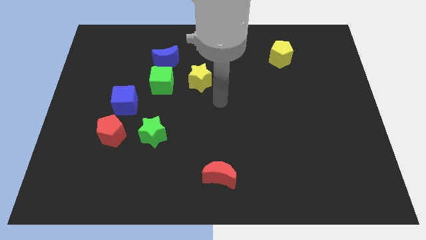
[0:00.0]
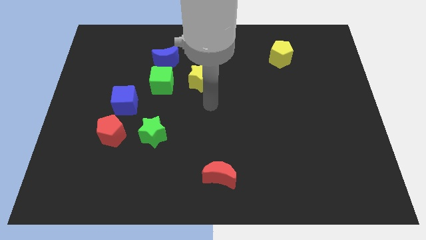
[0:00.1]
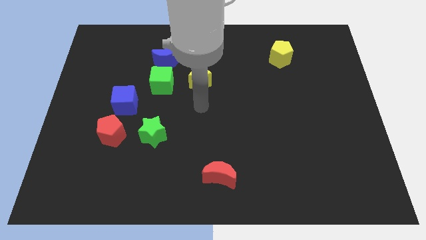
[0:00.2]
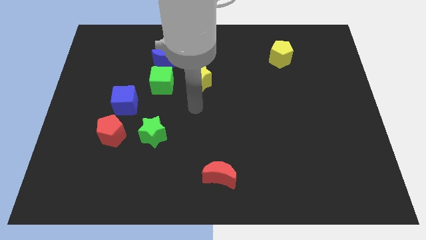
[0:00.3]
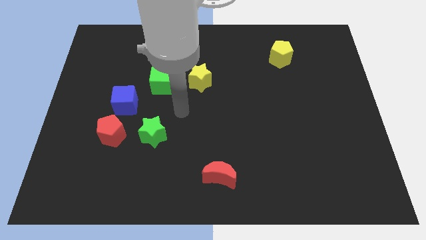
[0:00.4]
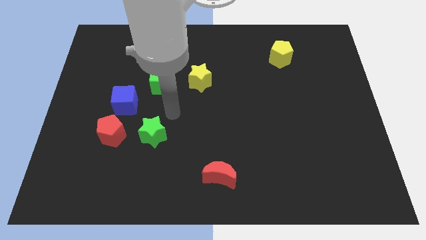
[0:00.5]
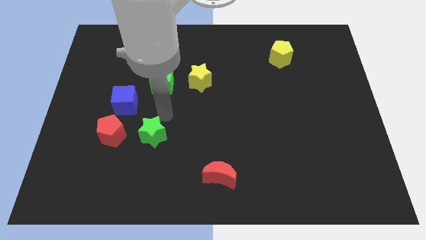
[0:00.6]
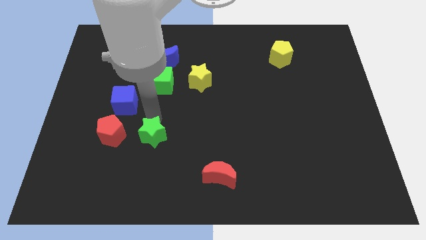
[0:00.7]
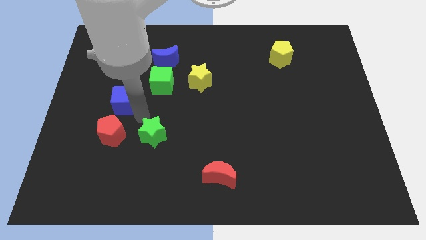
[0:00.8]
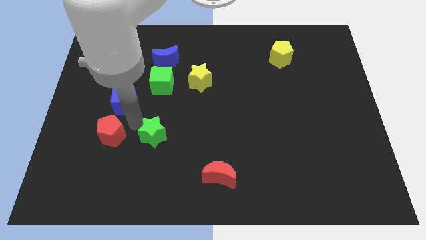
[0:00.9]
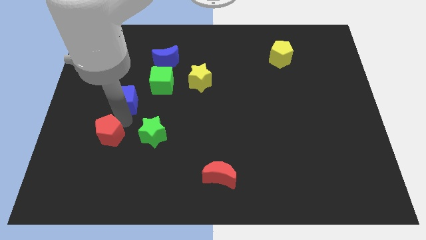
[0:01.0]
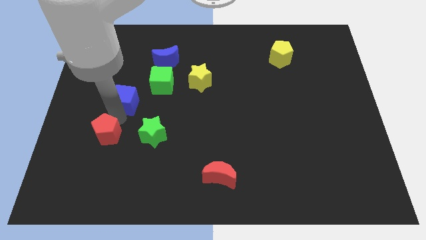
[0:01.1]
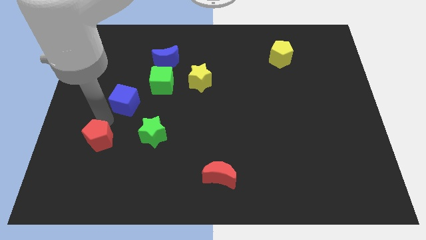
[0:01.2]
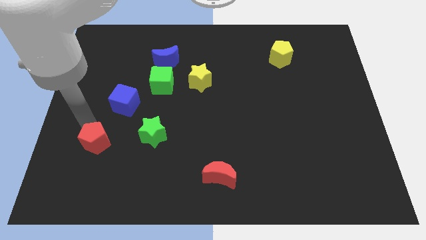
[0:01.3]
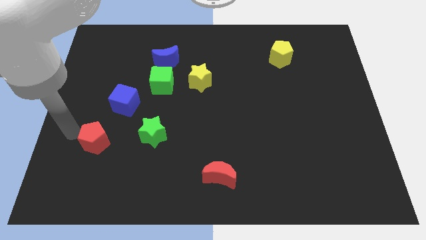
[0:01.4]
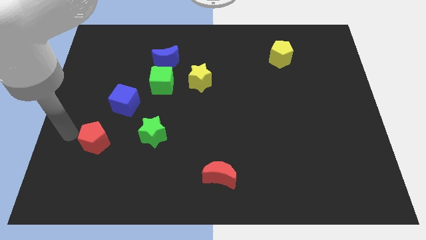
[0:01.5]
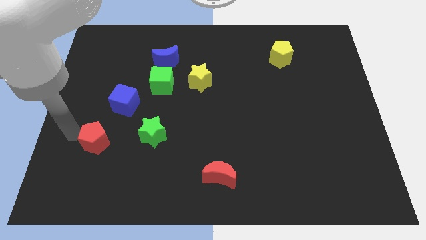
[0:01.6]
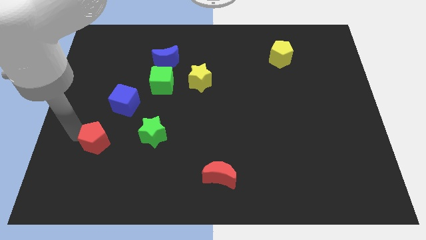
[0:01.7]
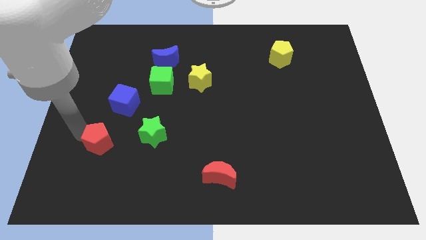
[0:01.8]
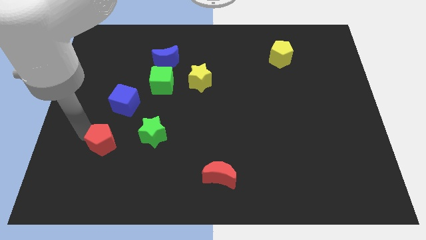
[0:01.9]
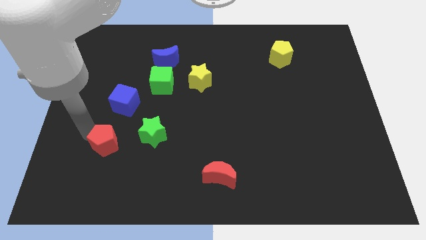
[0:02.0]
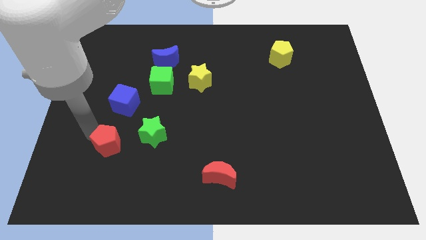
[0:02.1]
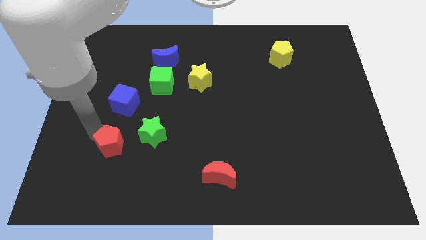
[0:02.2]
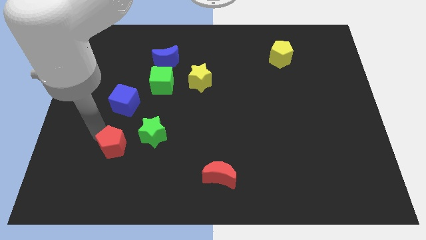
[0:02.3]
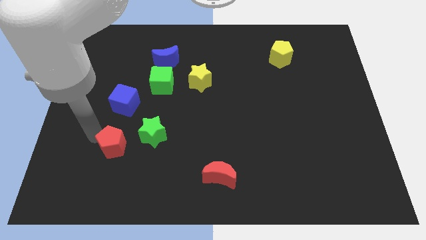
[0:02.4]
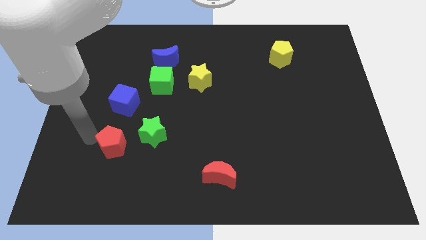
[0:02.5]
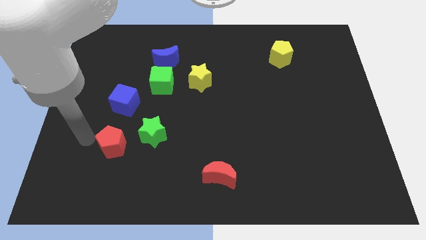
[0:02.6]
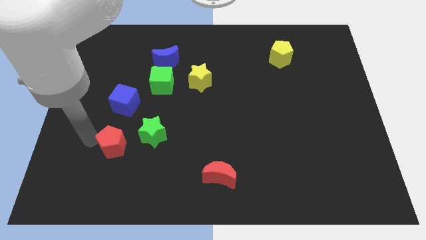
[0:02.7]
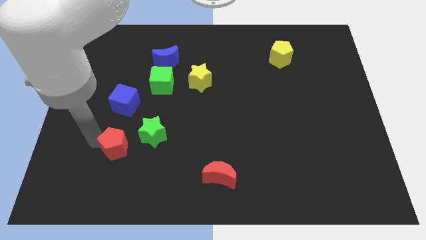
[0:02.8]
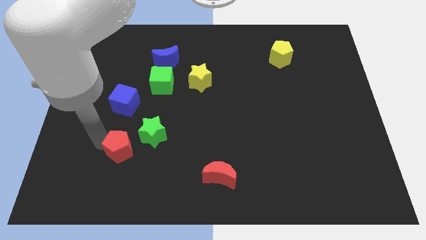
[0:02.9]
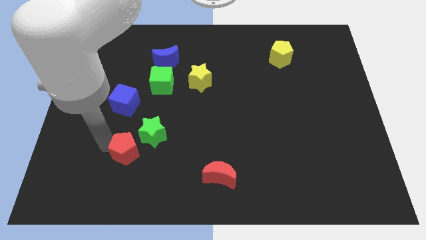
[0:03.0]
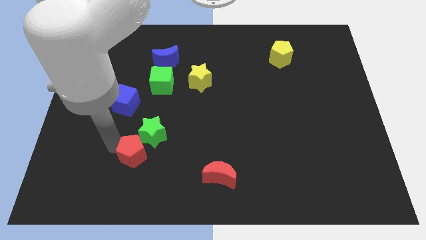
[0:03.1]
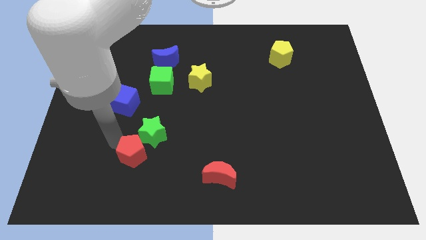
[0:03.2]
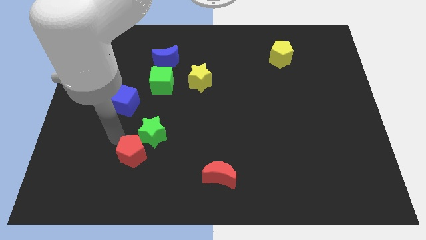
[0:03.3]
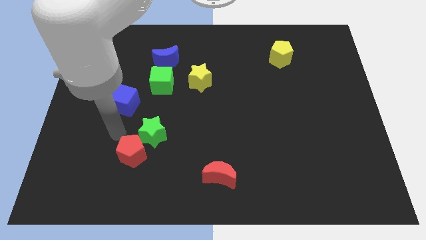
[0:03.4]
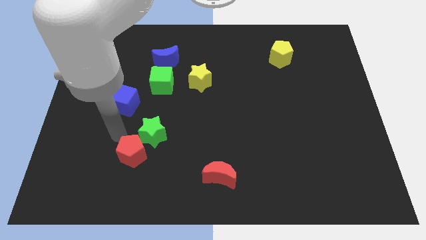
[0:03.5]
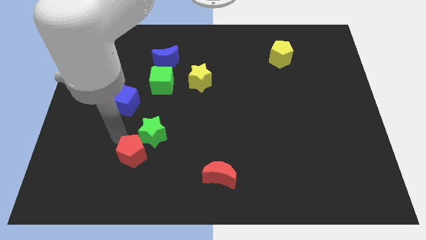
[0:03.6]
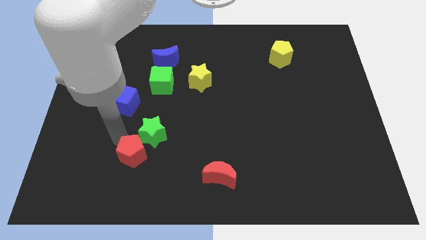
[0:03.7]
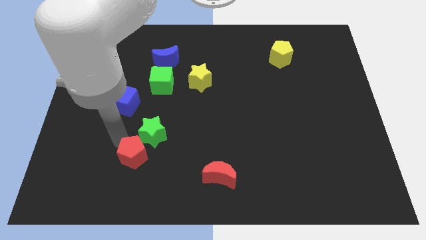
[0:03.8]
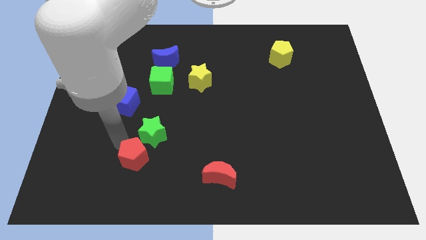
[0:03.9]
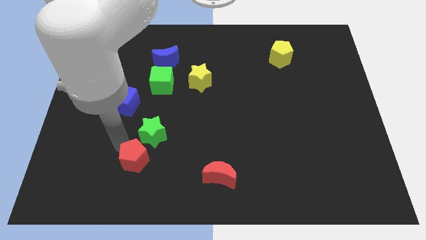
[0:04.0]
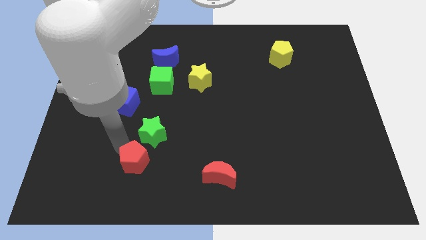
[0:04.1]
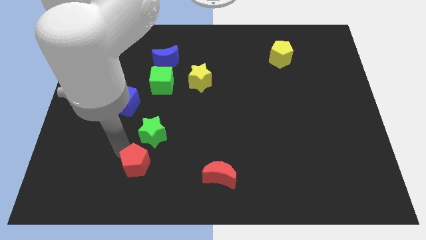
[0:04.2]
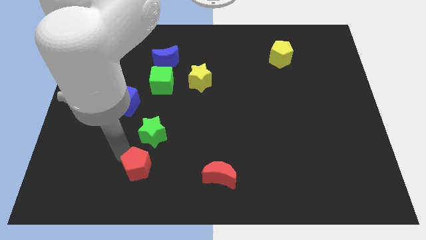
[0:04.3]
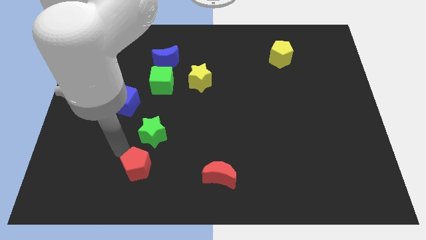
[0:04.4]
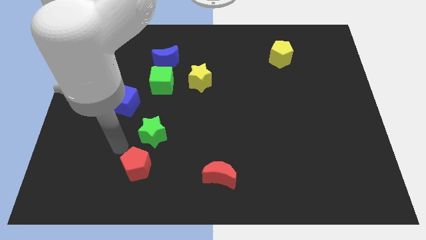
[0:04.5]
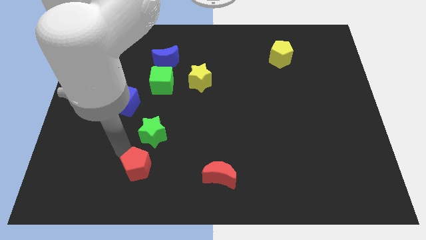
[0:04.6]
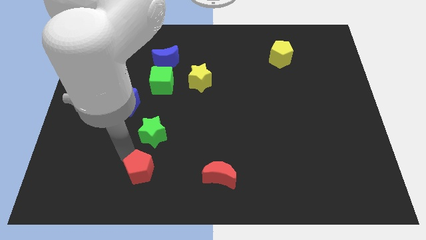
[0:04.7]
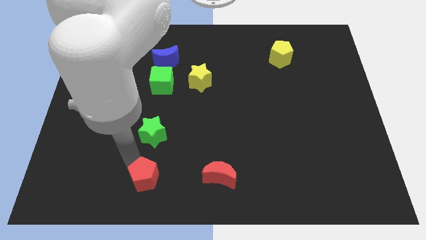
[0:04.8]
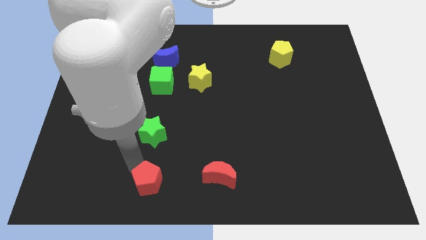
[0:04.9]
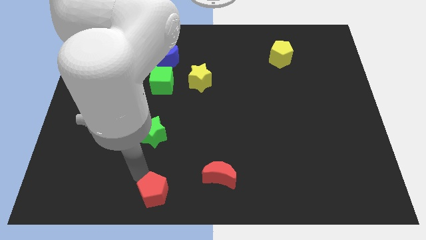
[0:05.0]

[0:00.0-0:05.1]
slide the red pentagon to the bottom

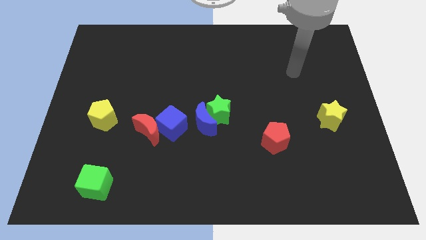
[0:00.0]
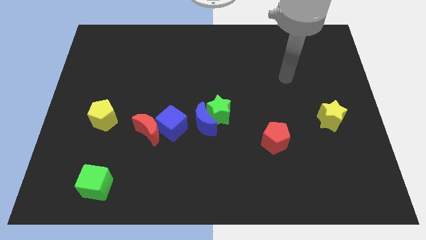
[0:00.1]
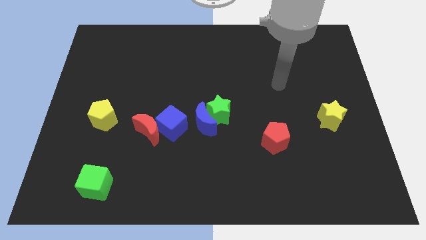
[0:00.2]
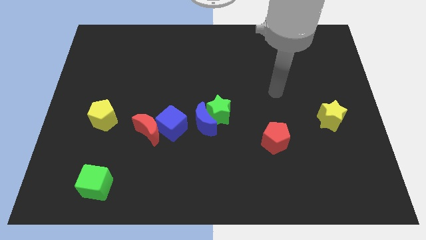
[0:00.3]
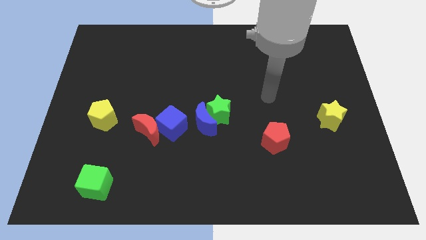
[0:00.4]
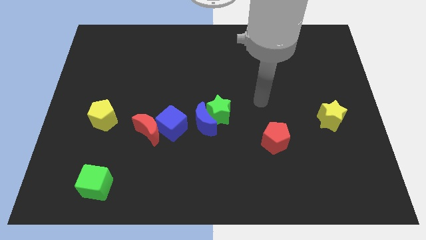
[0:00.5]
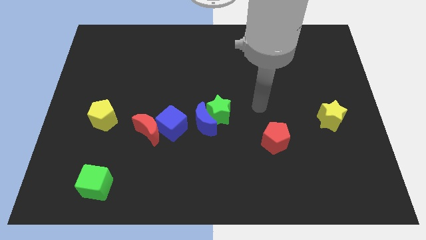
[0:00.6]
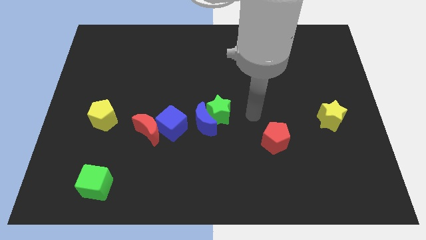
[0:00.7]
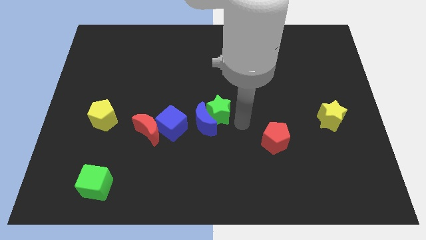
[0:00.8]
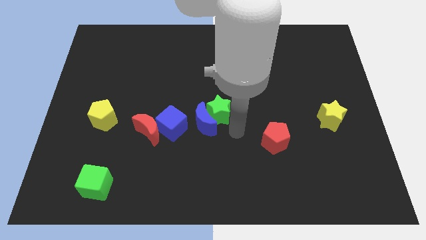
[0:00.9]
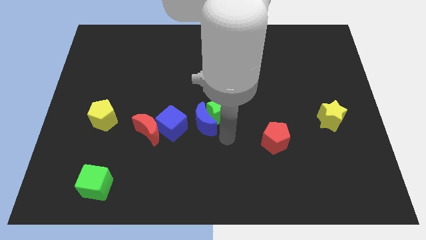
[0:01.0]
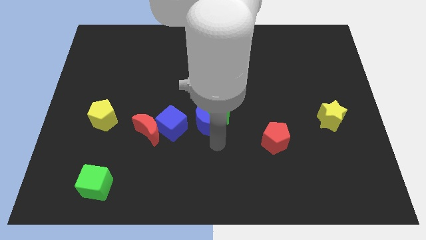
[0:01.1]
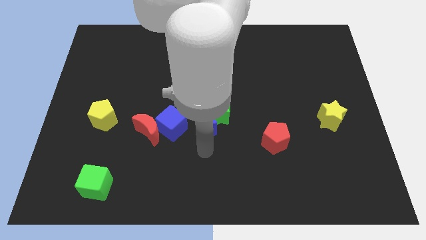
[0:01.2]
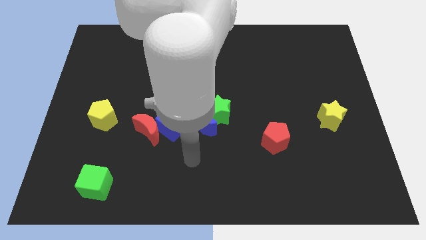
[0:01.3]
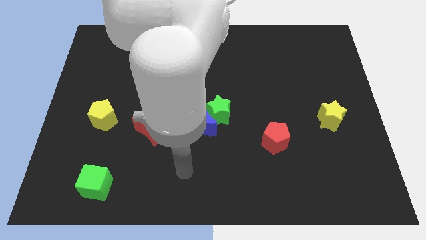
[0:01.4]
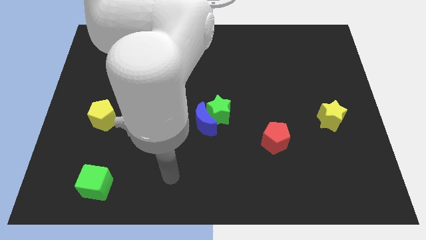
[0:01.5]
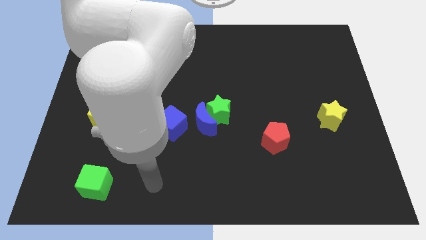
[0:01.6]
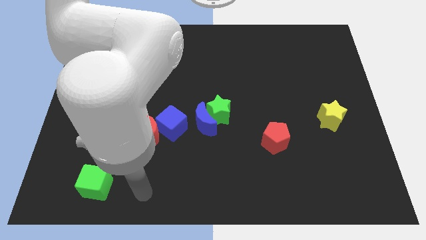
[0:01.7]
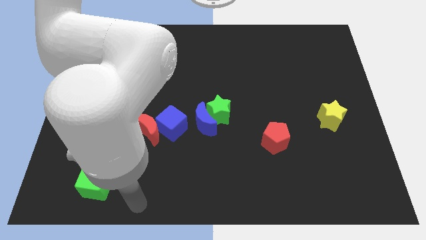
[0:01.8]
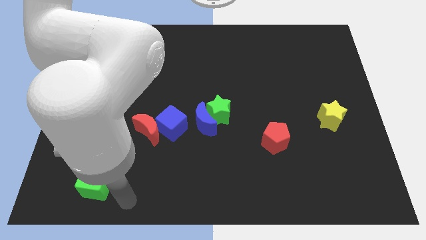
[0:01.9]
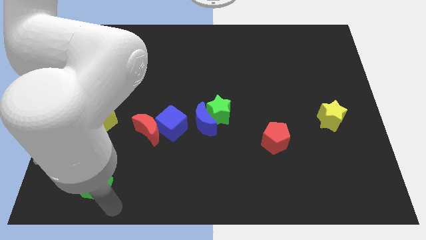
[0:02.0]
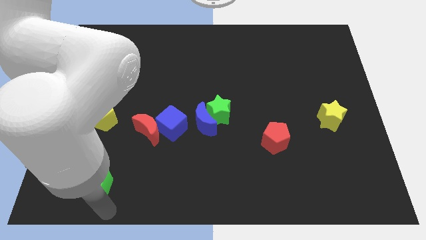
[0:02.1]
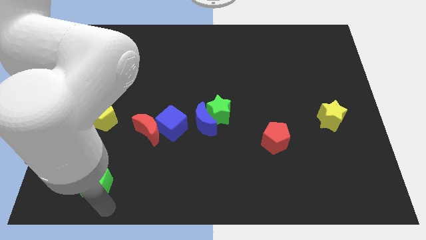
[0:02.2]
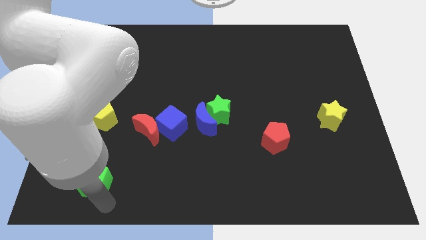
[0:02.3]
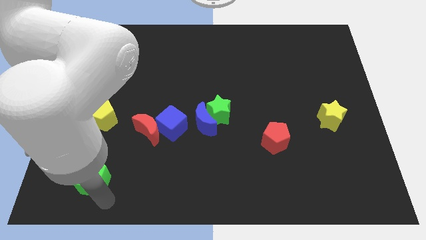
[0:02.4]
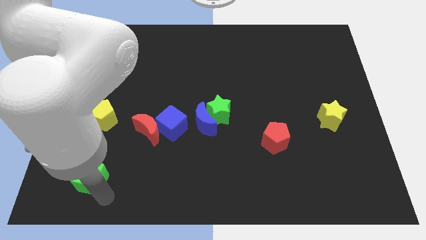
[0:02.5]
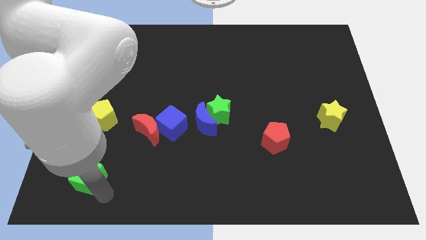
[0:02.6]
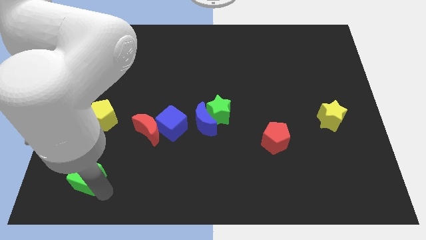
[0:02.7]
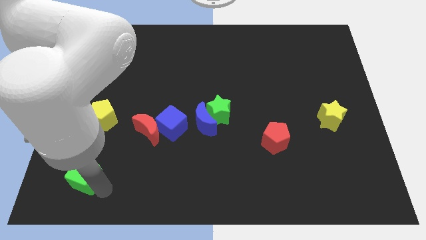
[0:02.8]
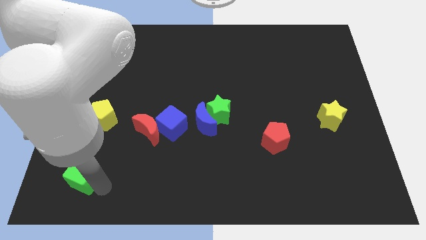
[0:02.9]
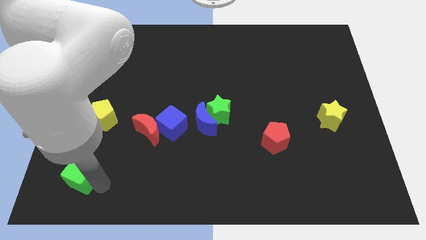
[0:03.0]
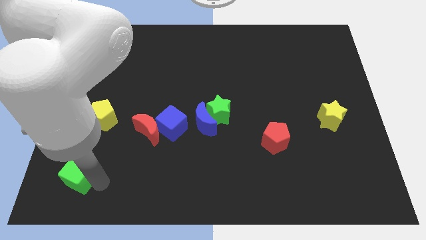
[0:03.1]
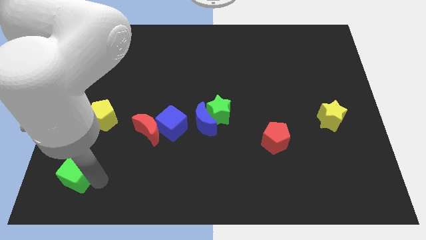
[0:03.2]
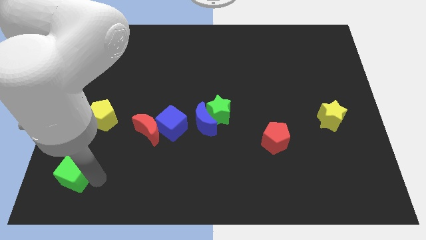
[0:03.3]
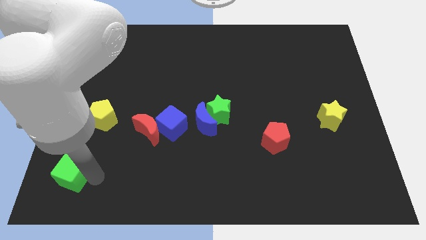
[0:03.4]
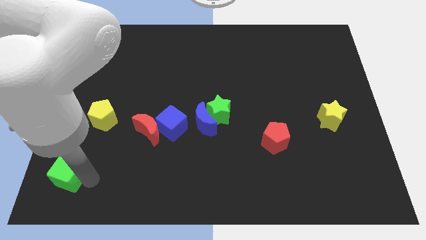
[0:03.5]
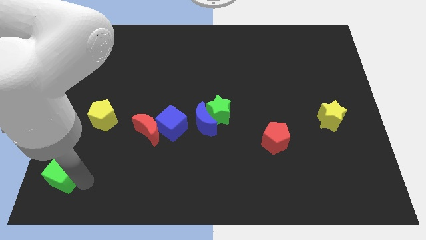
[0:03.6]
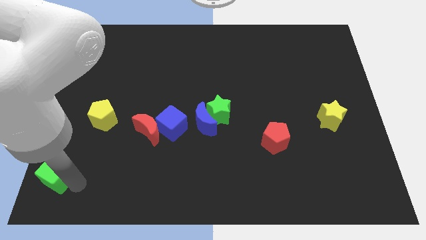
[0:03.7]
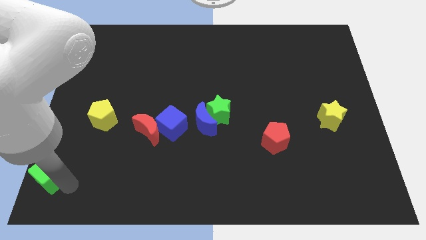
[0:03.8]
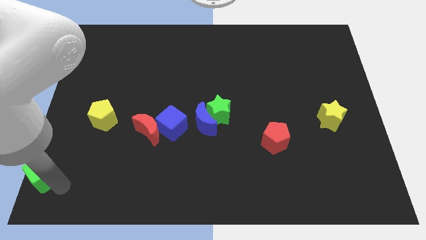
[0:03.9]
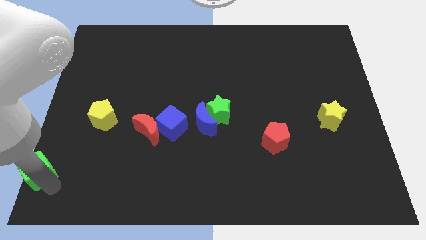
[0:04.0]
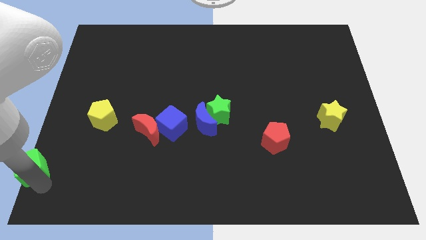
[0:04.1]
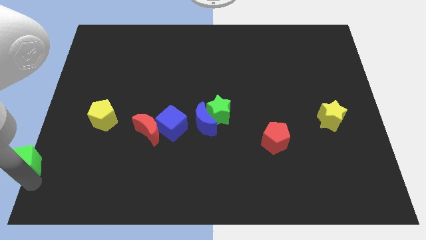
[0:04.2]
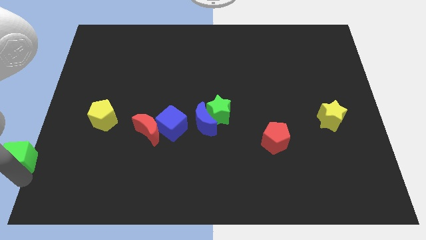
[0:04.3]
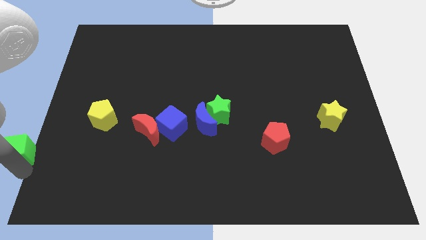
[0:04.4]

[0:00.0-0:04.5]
move the green cube to the left side of the board
